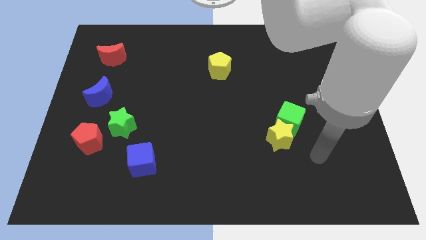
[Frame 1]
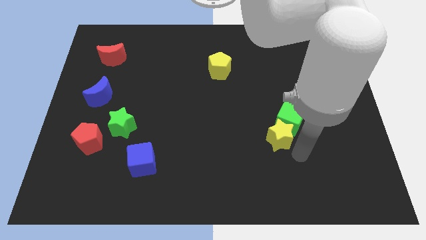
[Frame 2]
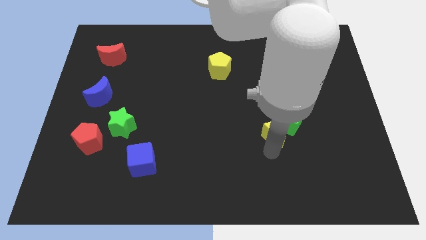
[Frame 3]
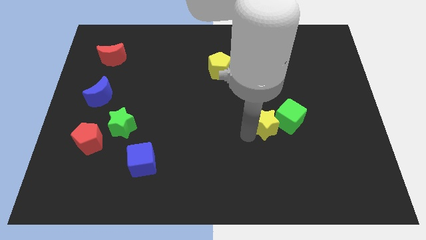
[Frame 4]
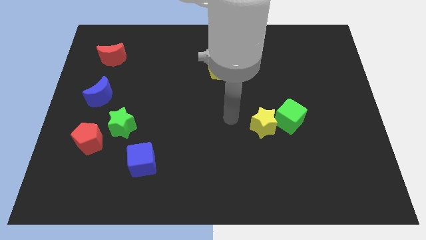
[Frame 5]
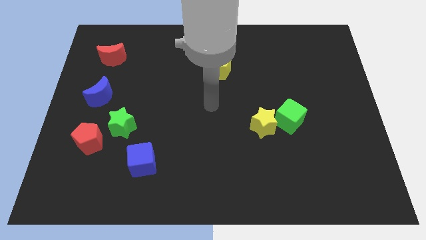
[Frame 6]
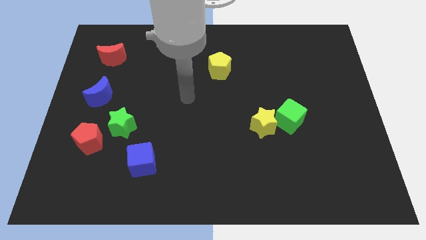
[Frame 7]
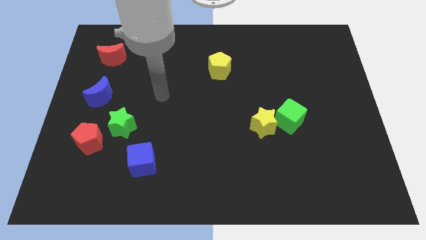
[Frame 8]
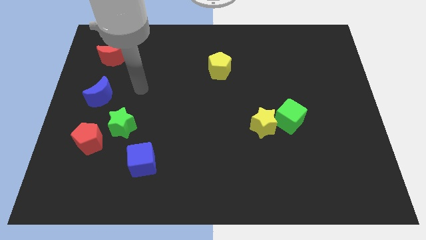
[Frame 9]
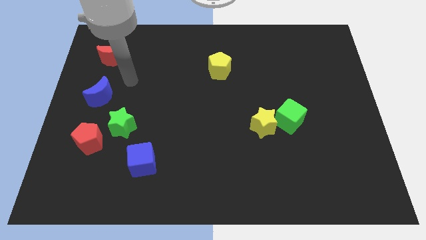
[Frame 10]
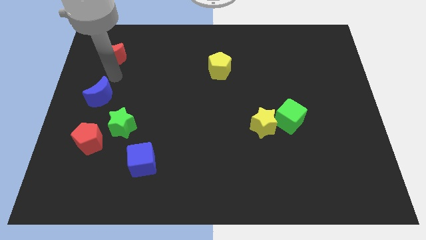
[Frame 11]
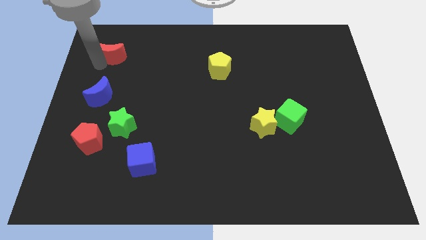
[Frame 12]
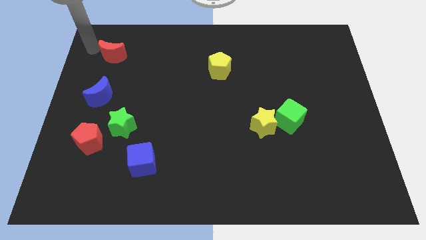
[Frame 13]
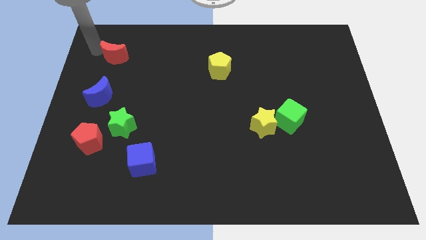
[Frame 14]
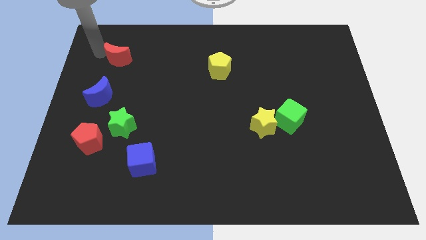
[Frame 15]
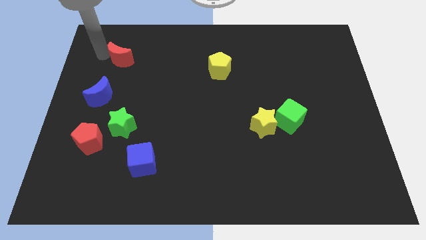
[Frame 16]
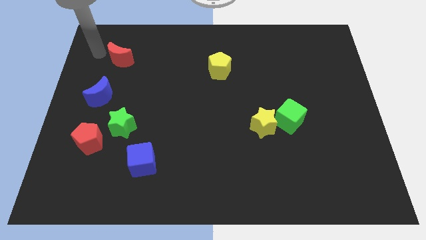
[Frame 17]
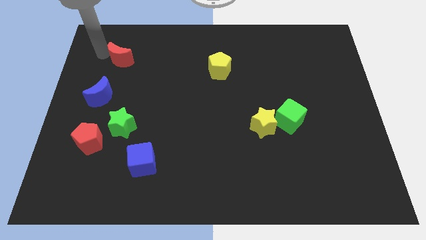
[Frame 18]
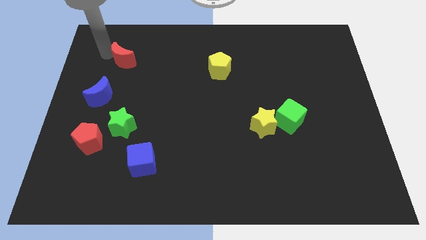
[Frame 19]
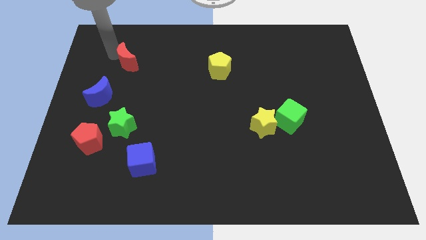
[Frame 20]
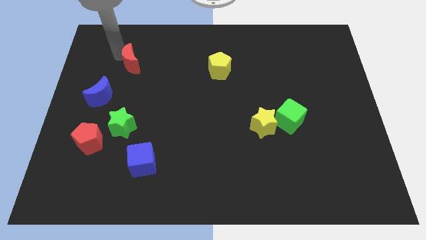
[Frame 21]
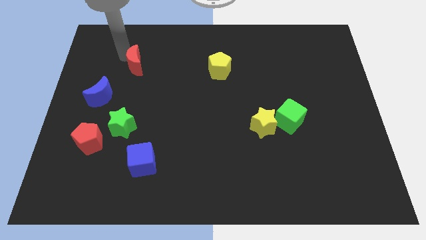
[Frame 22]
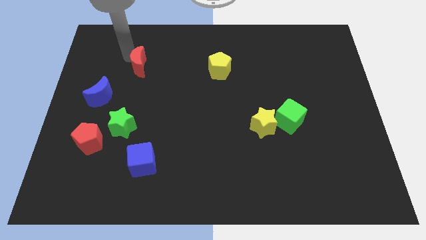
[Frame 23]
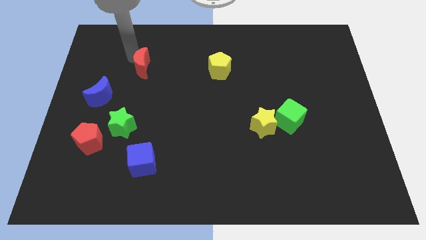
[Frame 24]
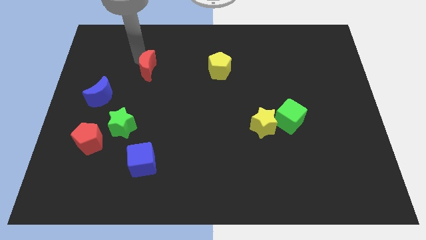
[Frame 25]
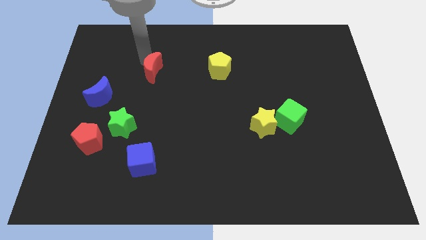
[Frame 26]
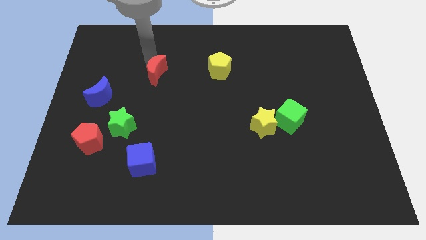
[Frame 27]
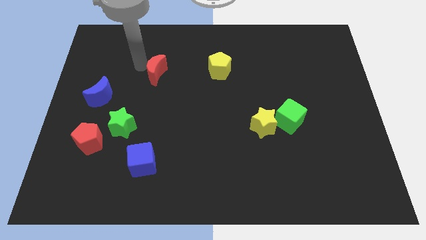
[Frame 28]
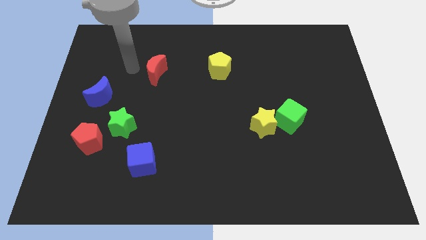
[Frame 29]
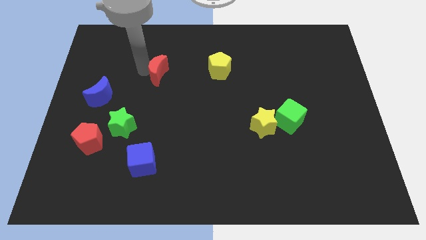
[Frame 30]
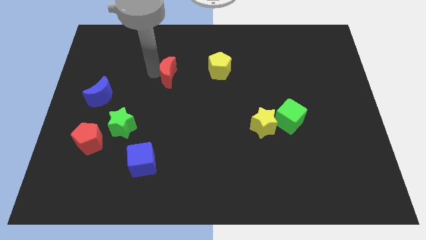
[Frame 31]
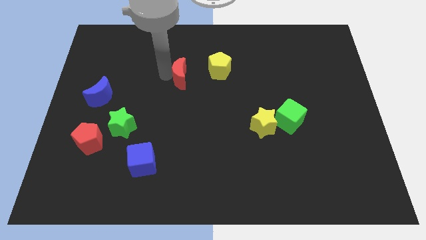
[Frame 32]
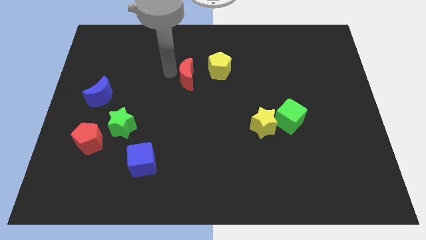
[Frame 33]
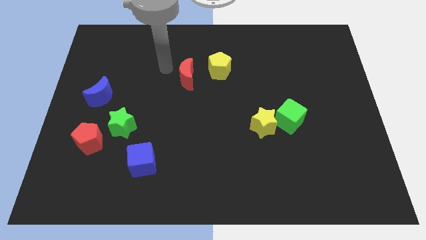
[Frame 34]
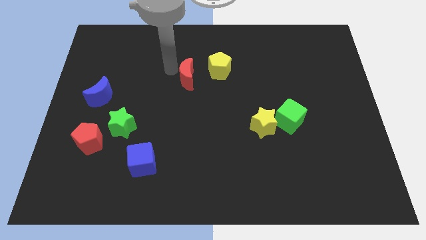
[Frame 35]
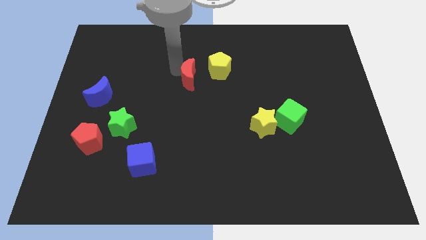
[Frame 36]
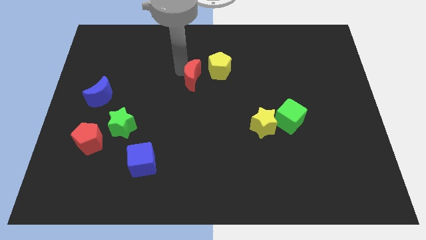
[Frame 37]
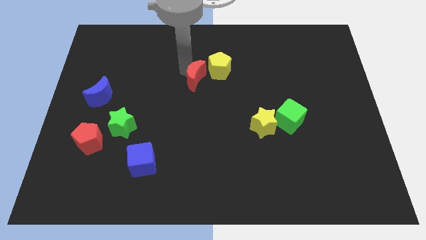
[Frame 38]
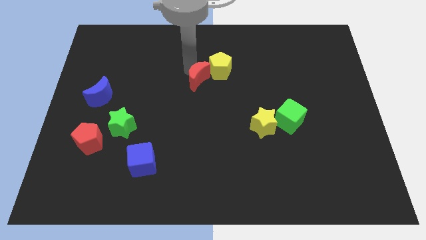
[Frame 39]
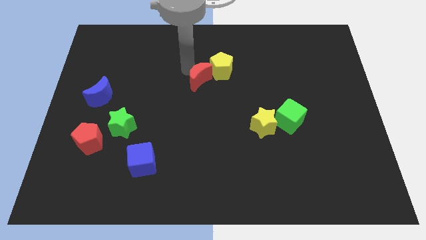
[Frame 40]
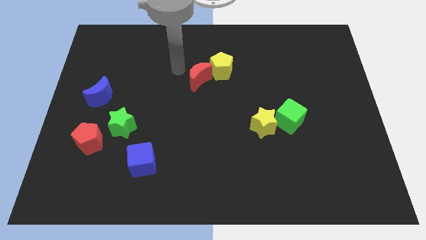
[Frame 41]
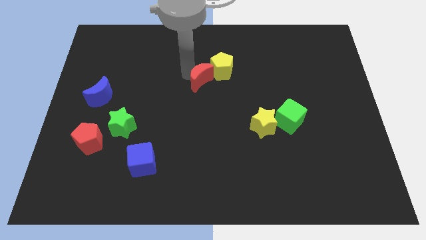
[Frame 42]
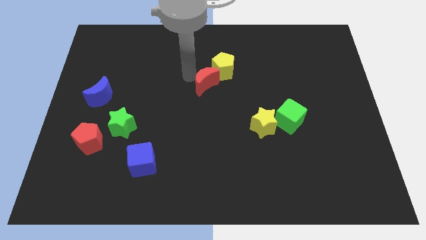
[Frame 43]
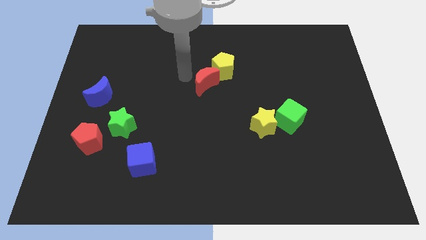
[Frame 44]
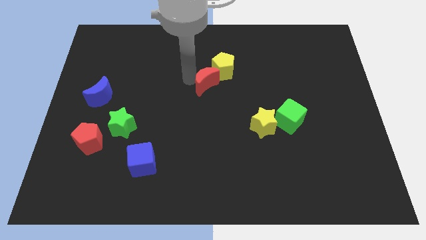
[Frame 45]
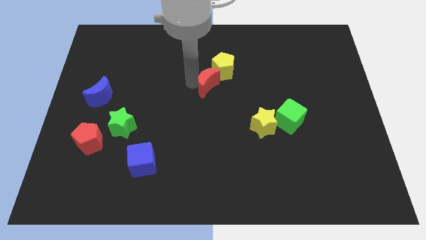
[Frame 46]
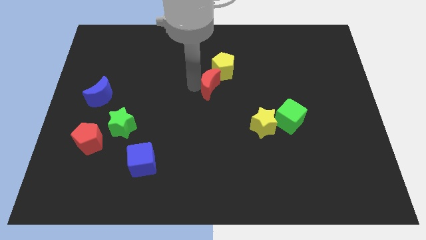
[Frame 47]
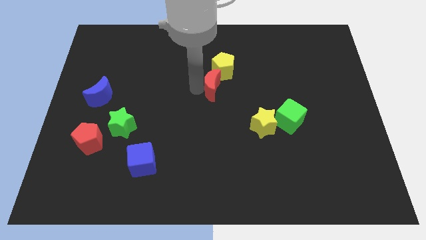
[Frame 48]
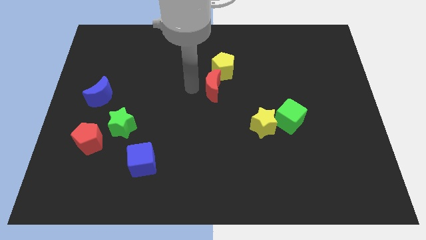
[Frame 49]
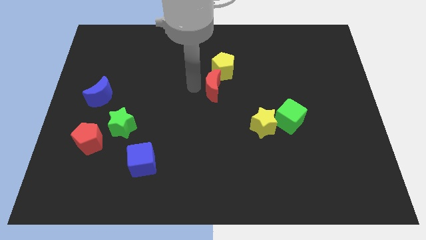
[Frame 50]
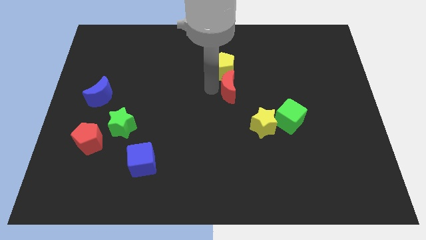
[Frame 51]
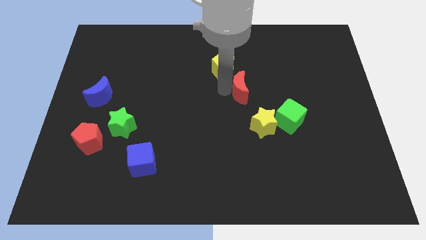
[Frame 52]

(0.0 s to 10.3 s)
slide the red moon to the top side of the yellow star

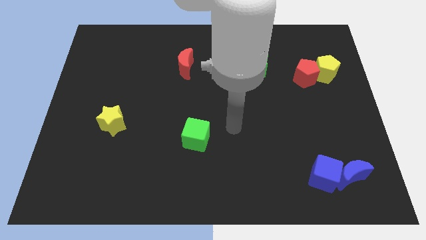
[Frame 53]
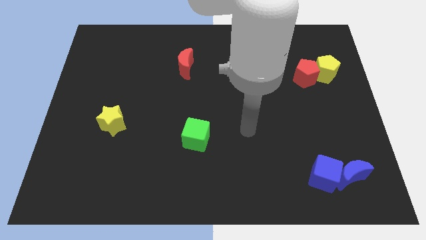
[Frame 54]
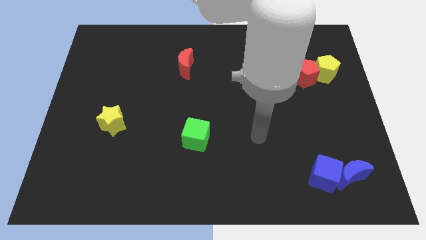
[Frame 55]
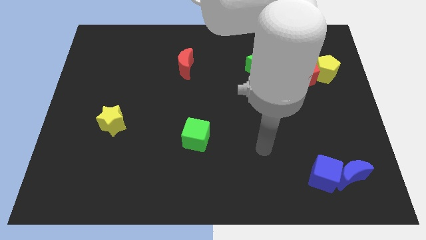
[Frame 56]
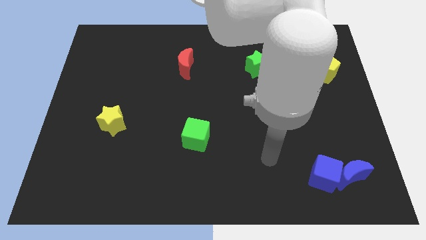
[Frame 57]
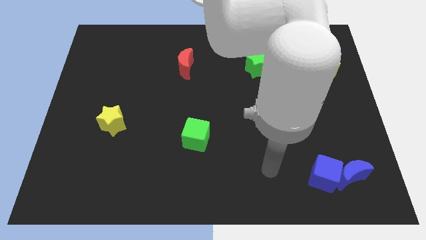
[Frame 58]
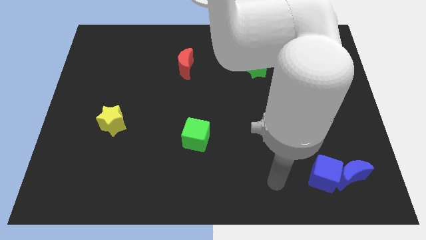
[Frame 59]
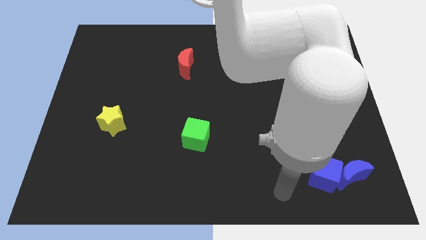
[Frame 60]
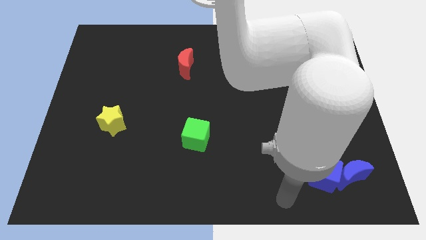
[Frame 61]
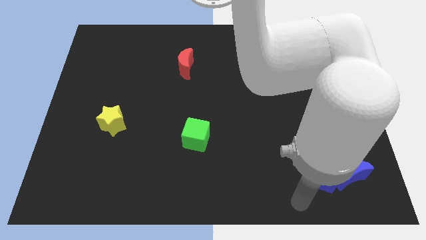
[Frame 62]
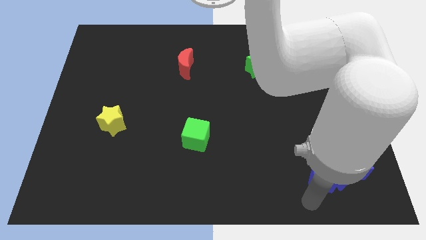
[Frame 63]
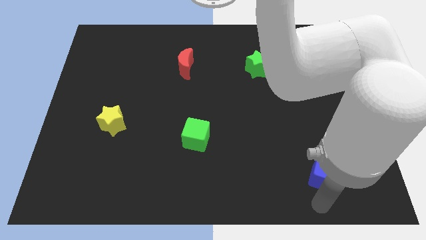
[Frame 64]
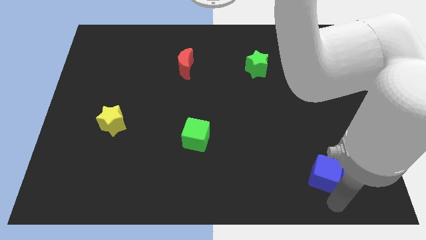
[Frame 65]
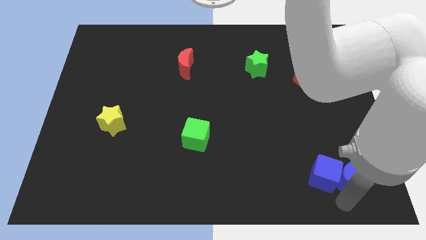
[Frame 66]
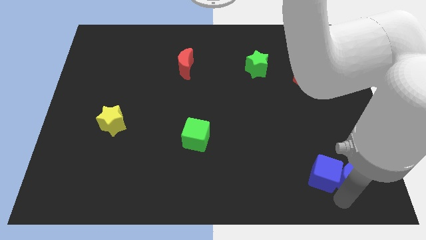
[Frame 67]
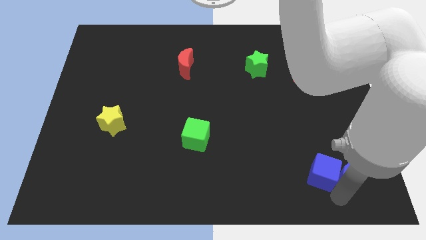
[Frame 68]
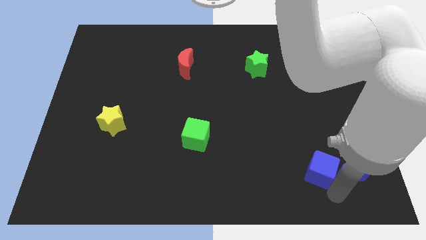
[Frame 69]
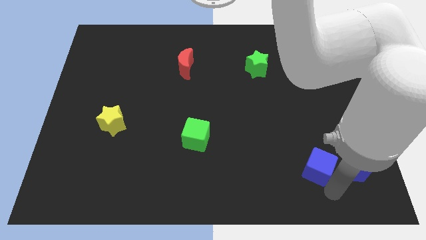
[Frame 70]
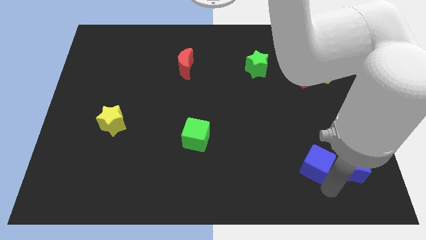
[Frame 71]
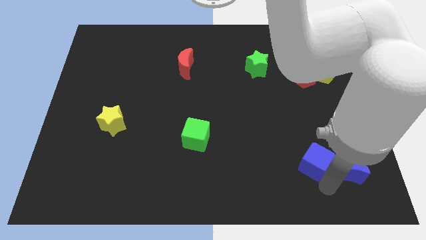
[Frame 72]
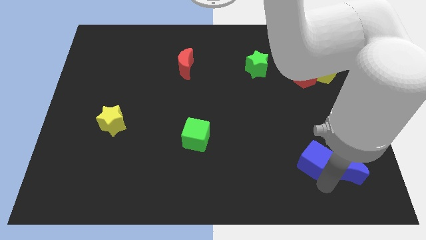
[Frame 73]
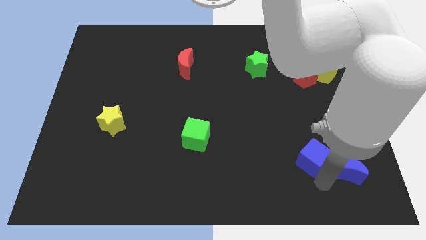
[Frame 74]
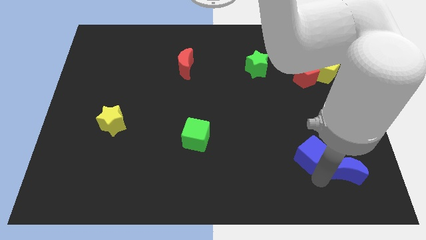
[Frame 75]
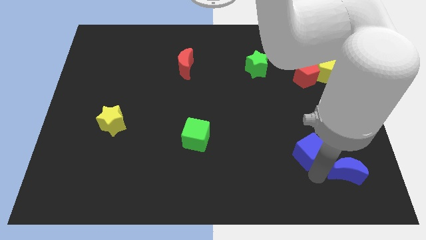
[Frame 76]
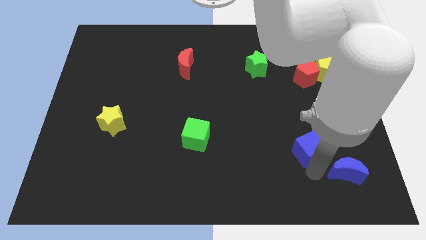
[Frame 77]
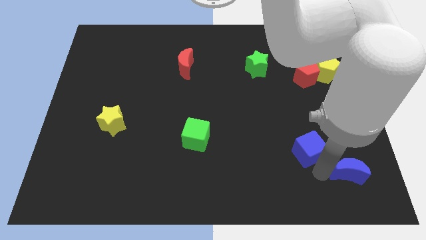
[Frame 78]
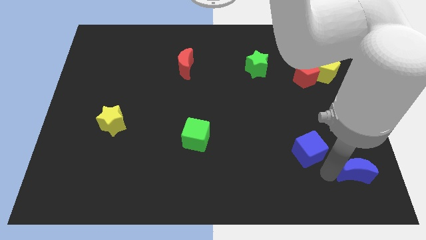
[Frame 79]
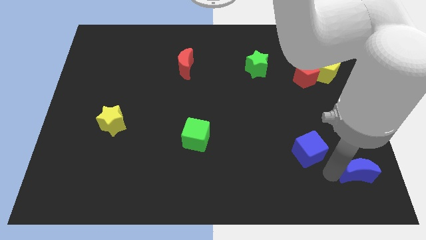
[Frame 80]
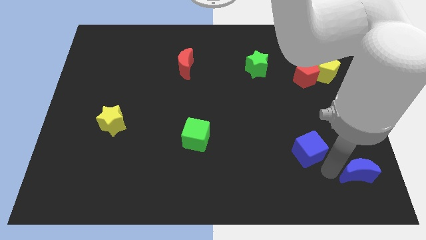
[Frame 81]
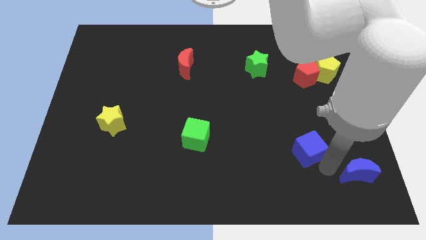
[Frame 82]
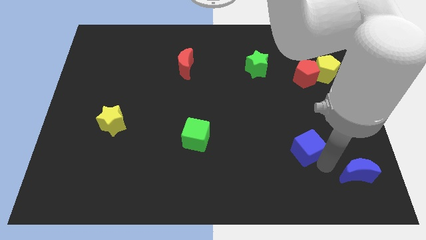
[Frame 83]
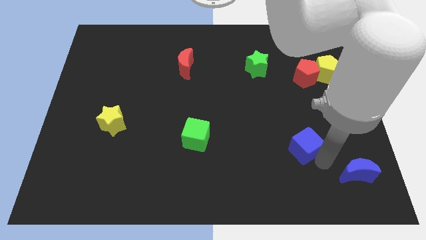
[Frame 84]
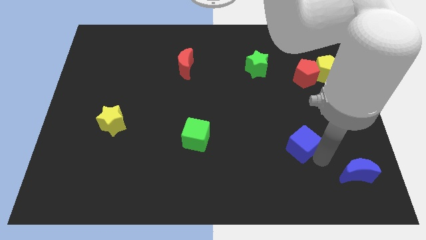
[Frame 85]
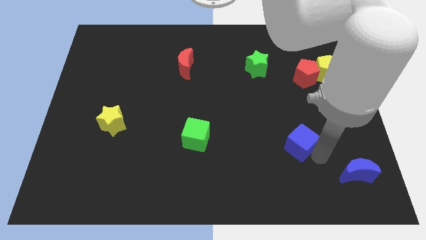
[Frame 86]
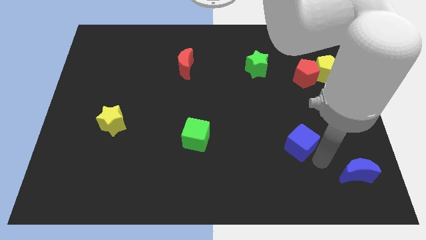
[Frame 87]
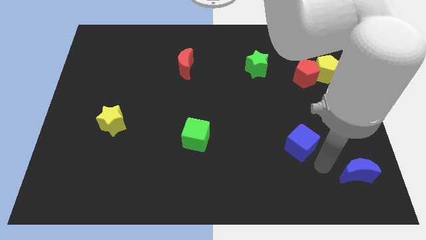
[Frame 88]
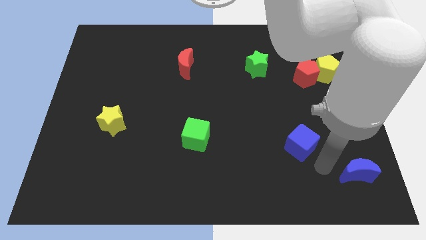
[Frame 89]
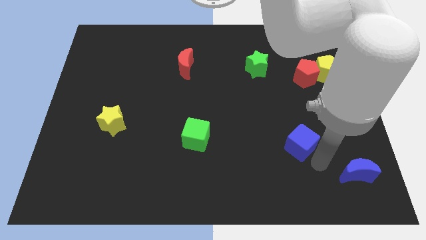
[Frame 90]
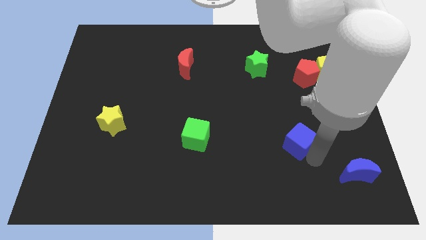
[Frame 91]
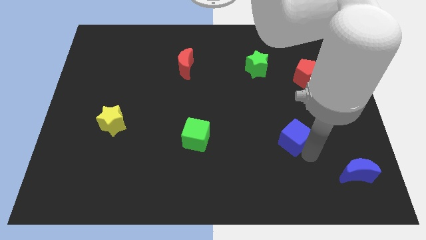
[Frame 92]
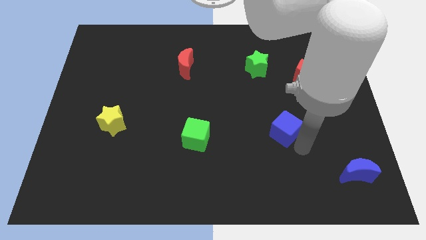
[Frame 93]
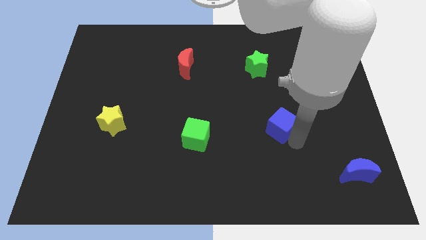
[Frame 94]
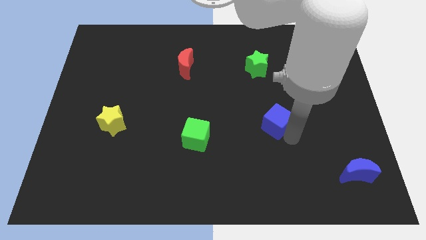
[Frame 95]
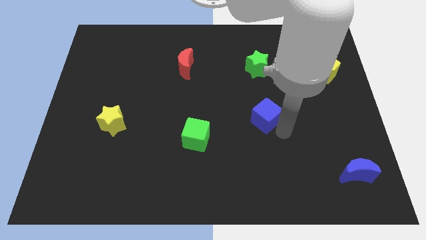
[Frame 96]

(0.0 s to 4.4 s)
move the blue cube to the bottom side of the green star
